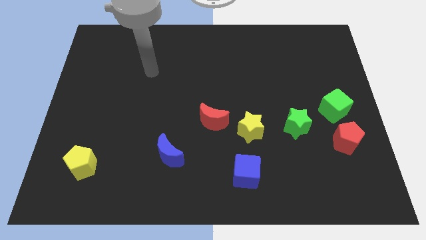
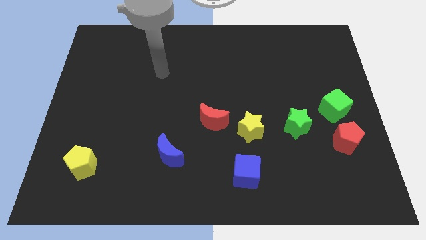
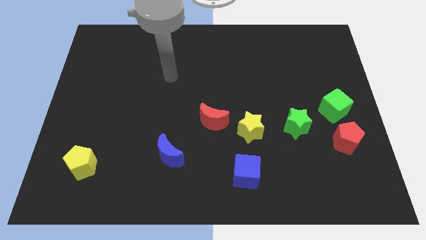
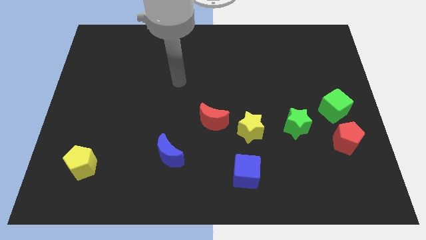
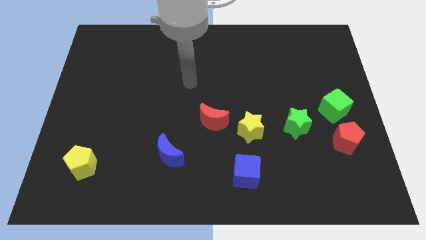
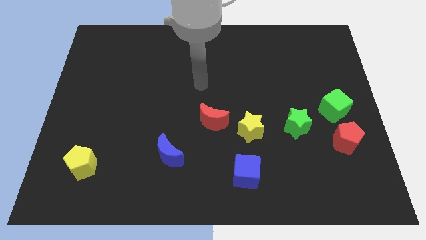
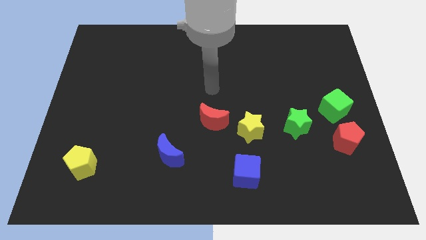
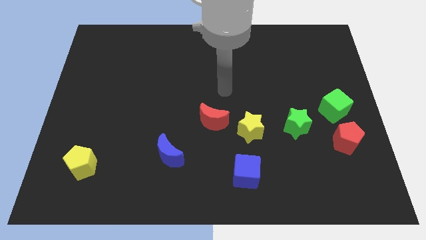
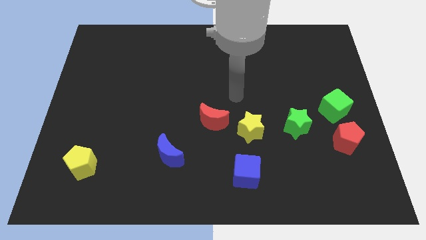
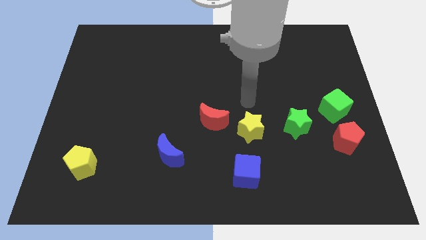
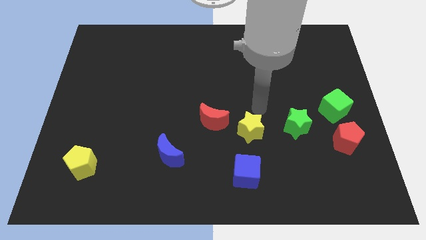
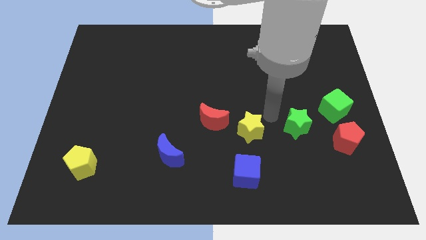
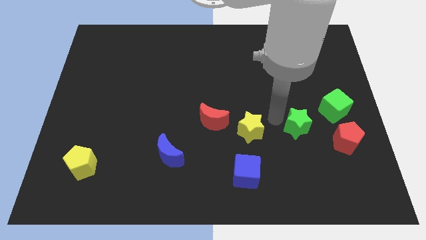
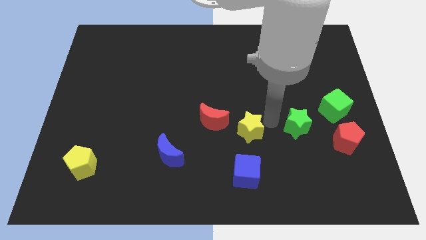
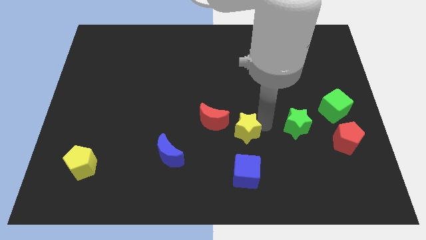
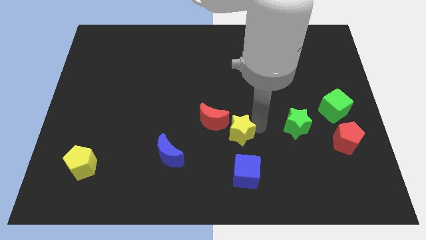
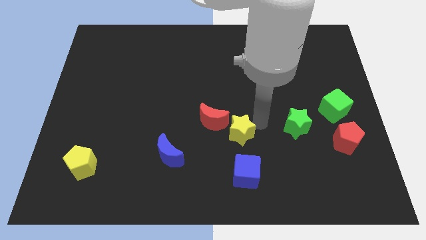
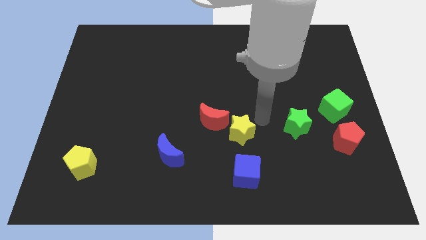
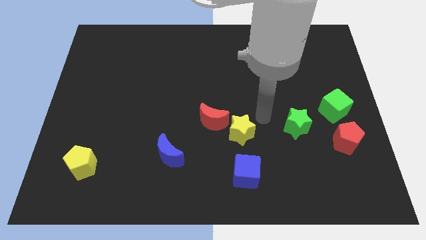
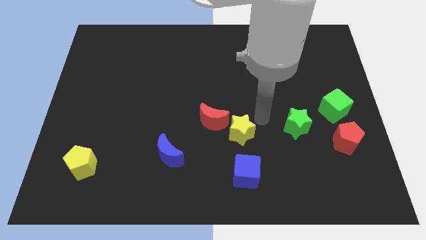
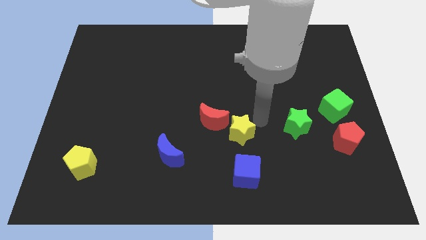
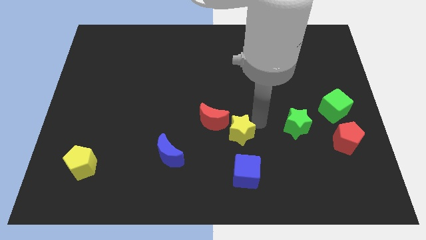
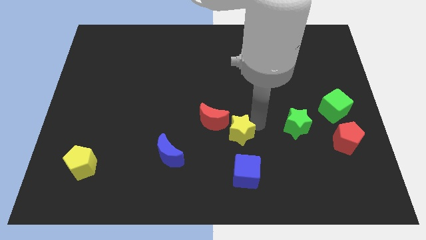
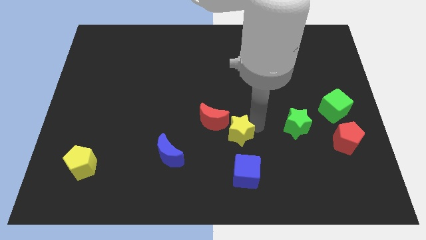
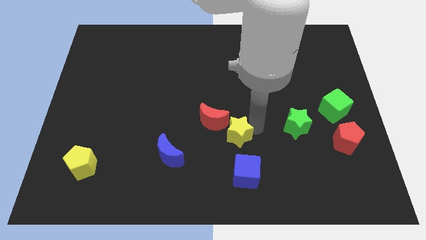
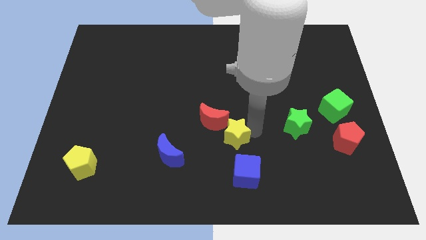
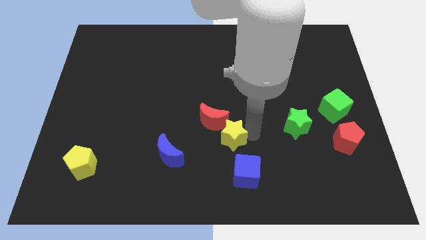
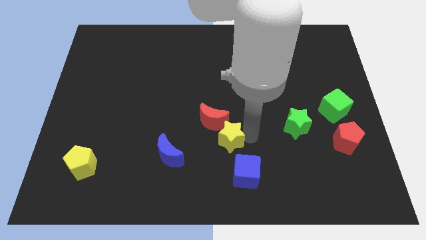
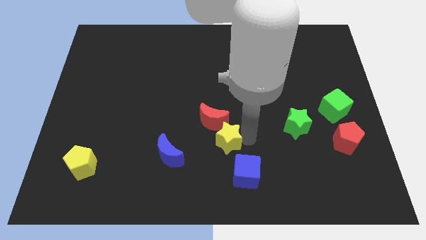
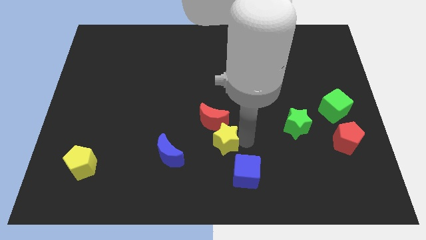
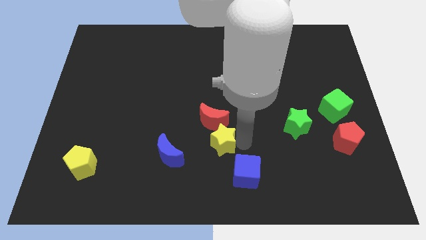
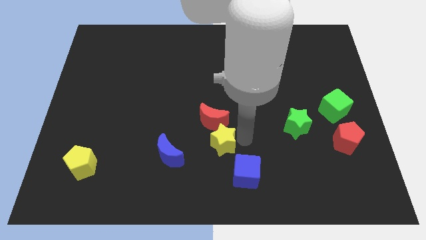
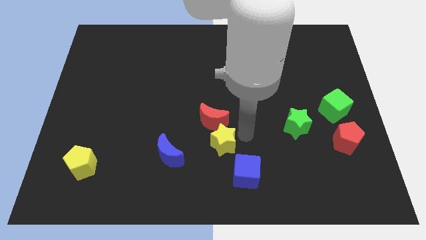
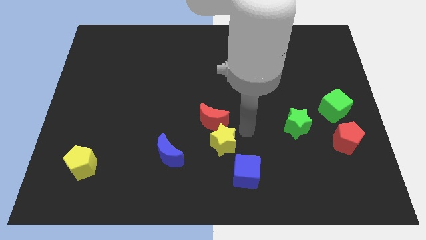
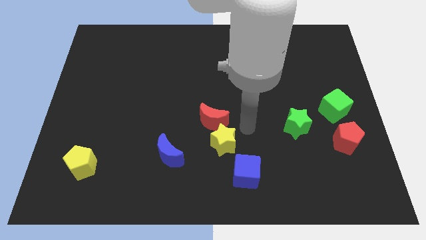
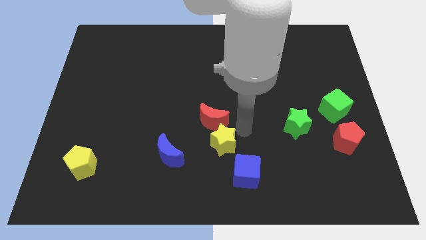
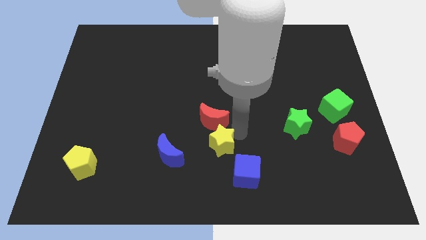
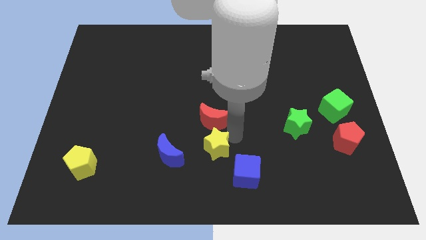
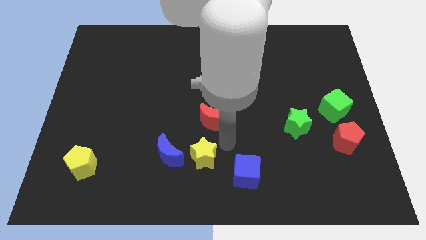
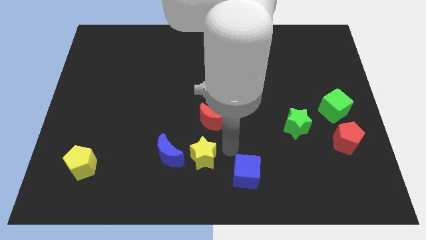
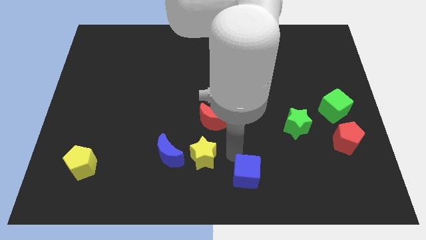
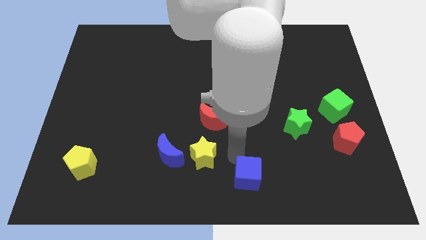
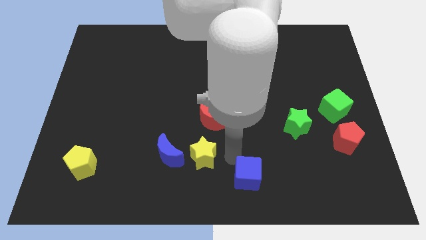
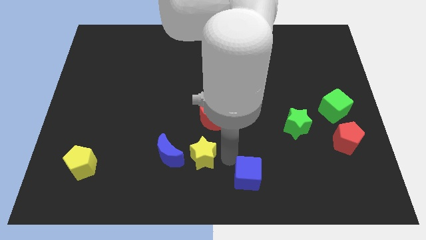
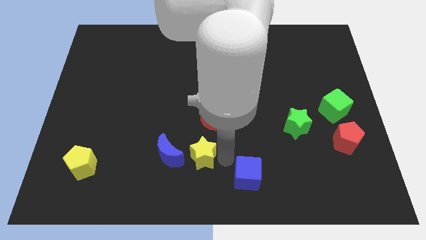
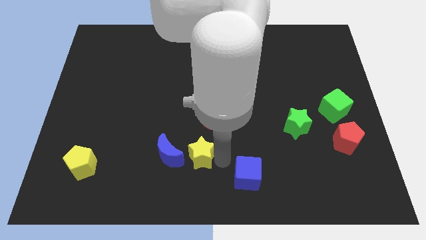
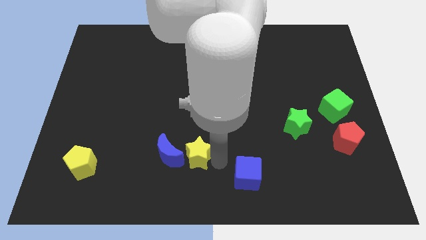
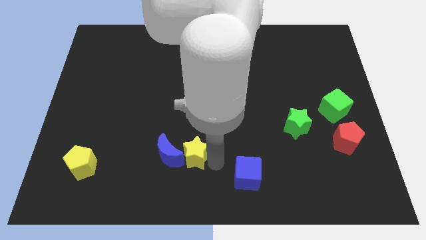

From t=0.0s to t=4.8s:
move the yellow star close to the blue moon

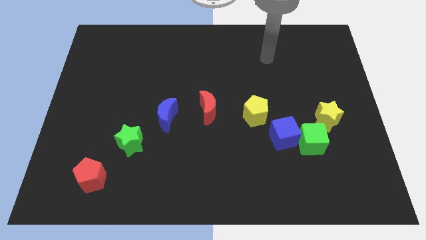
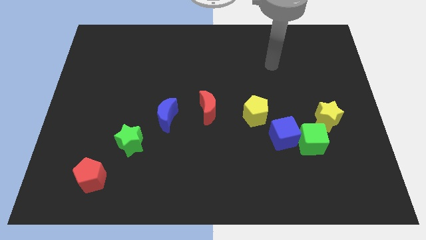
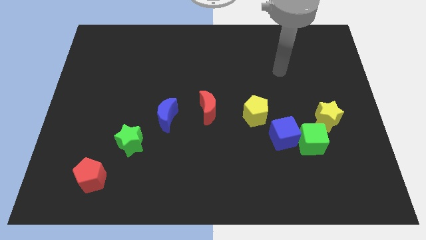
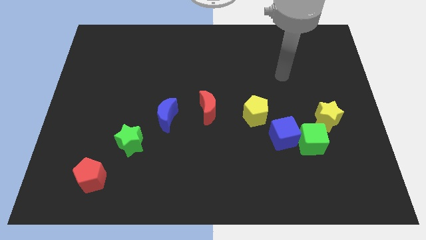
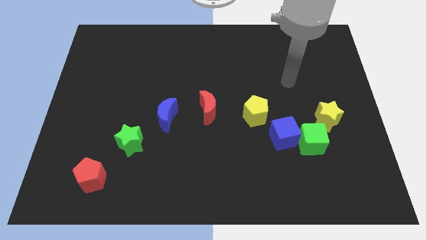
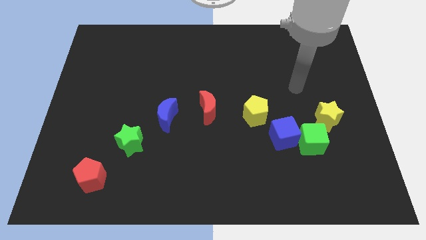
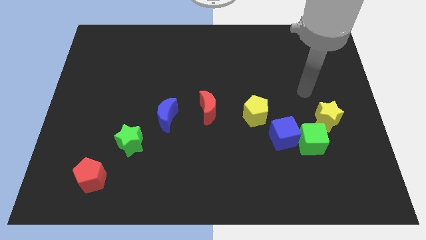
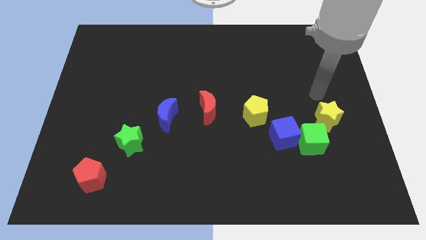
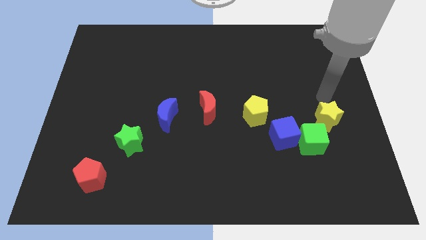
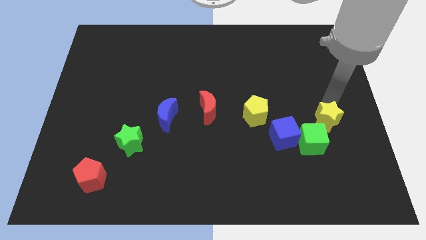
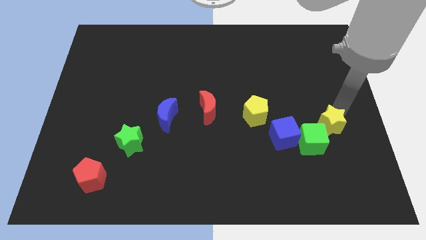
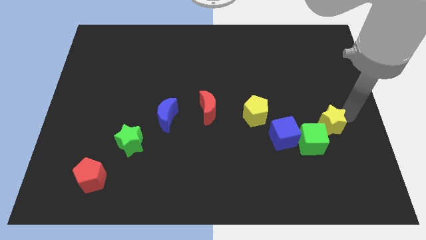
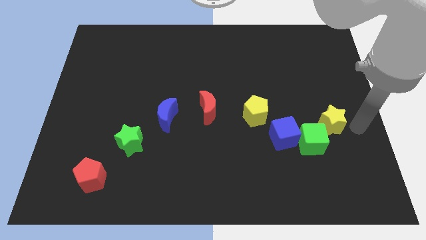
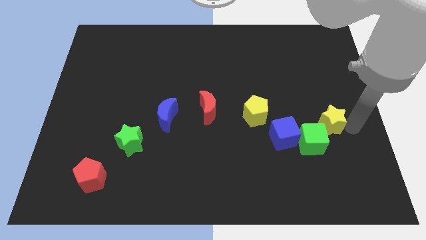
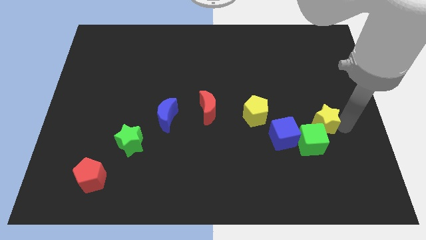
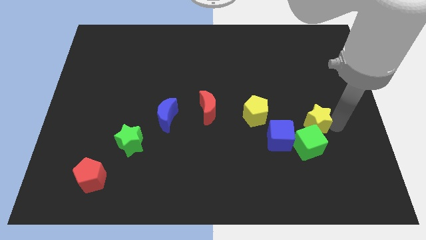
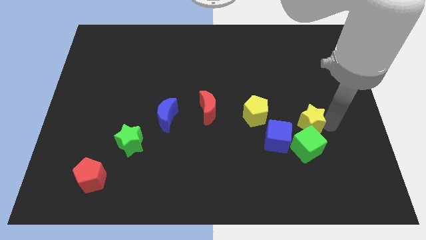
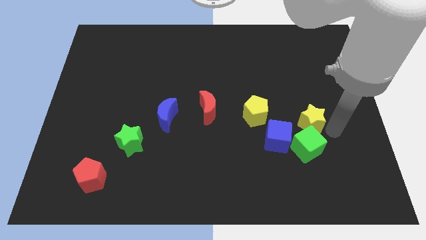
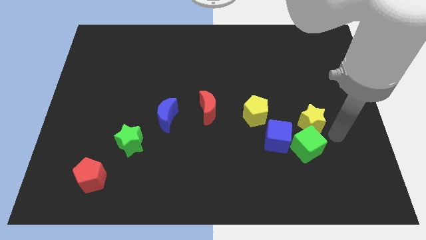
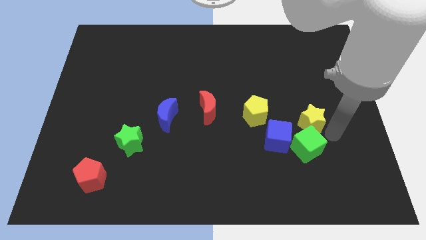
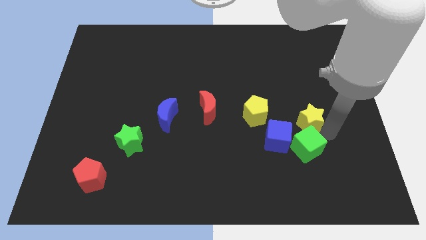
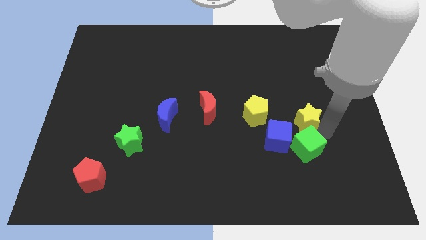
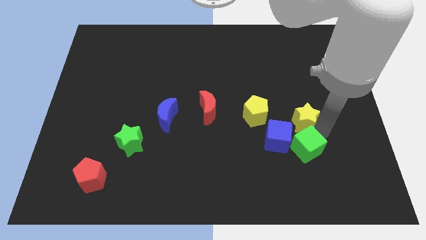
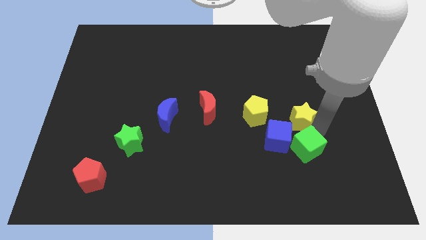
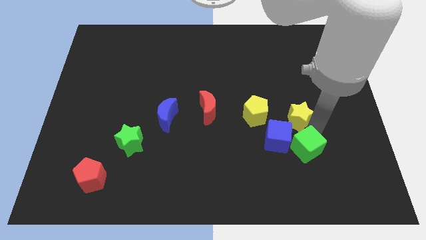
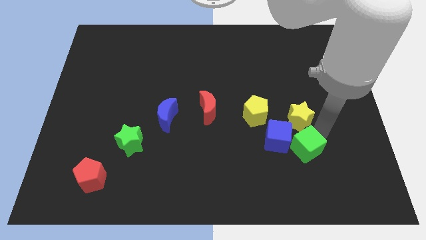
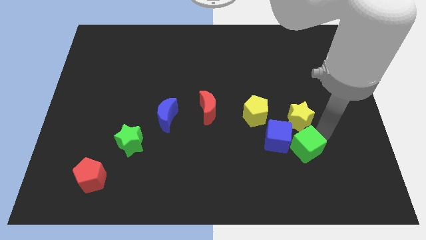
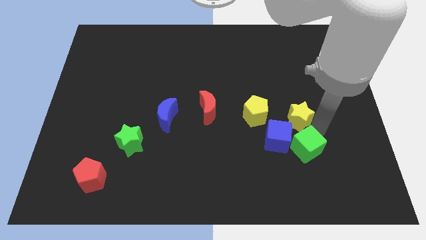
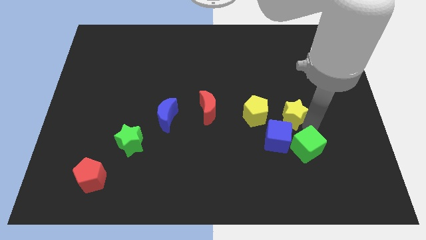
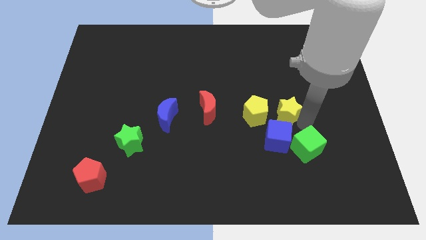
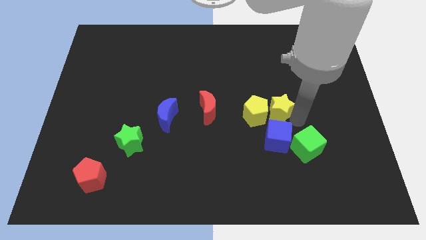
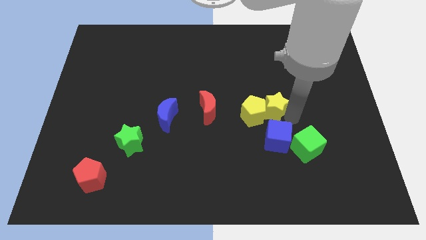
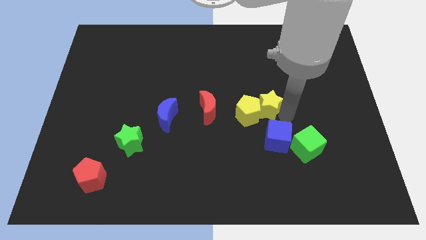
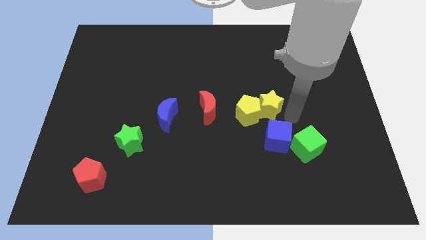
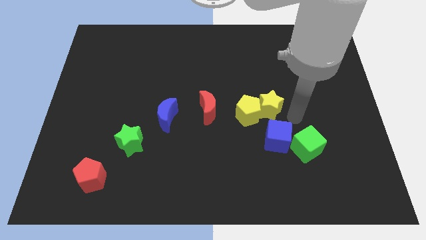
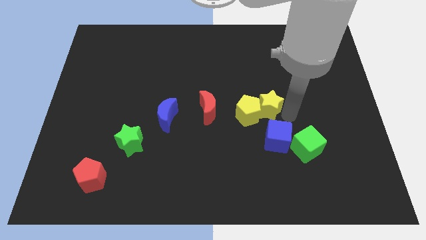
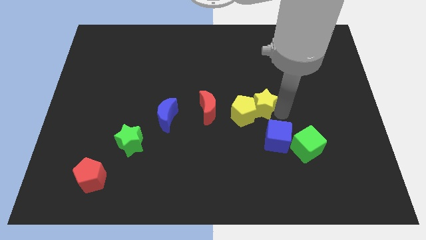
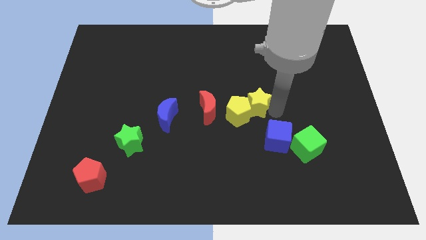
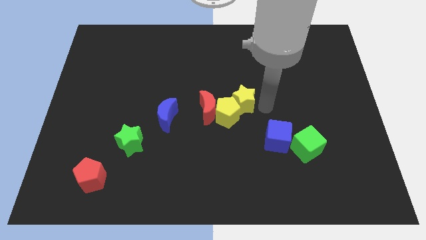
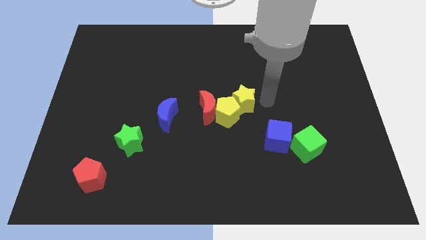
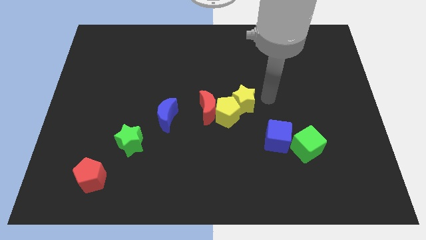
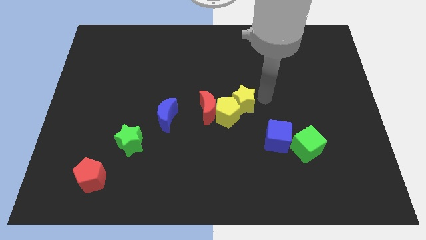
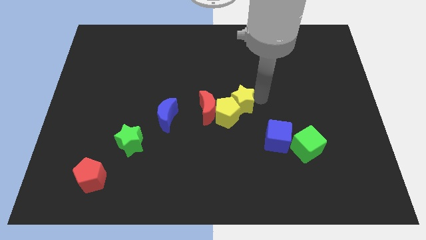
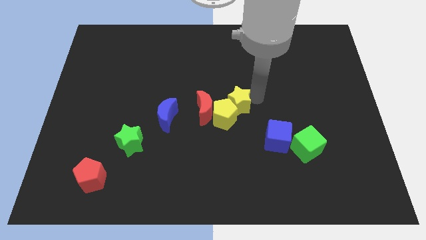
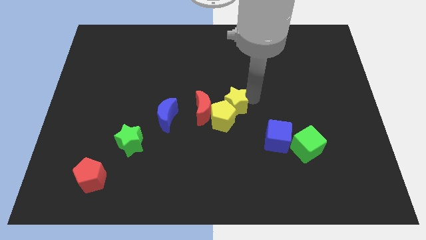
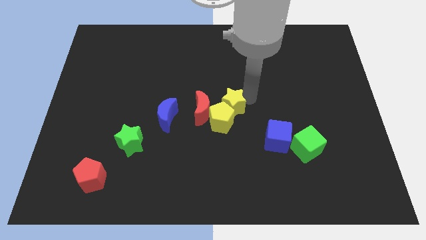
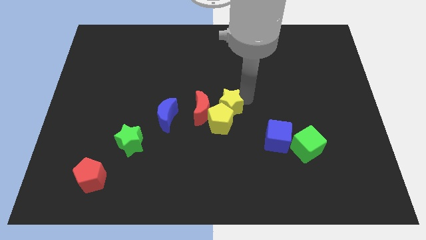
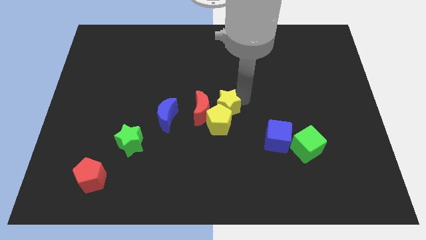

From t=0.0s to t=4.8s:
put the yellow star next to the red moon
